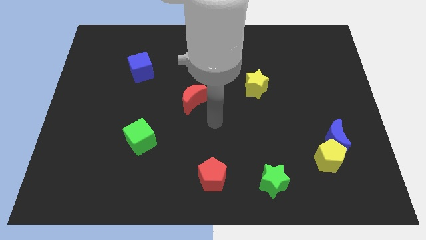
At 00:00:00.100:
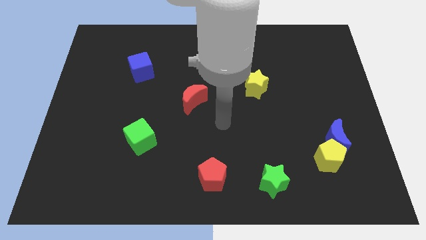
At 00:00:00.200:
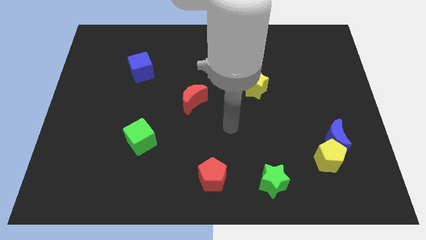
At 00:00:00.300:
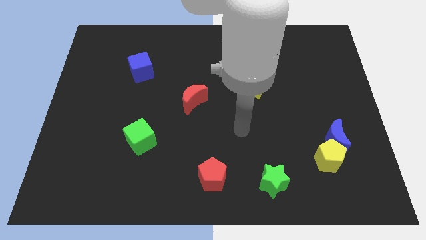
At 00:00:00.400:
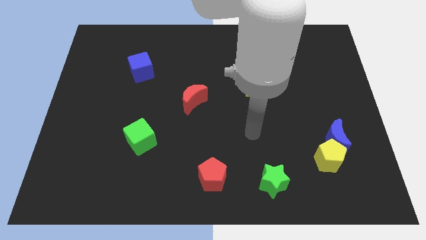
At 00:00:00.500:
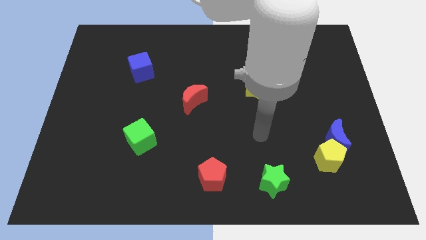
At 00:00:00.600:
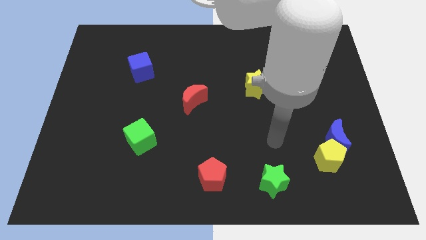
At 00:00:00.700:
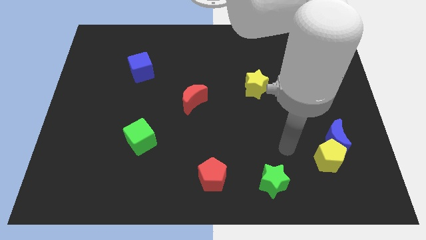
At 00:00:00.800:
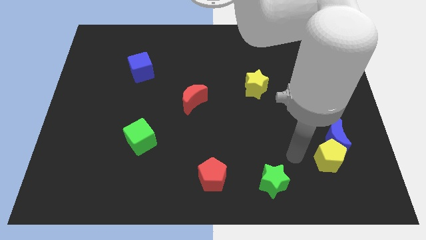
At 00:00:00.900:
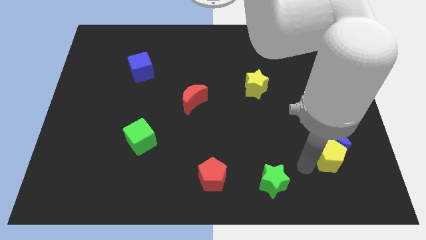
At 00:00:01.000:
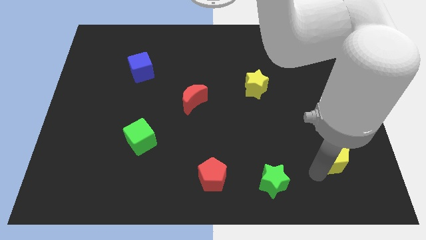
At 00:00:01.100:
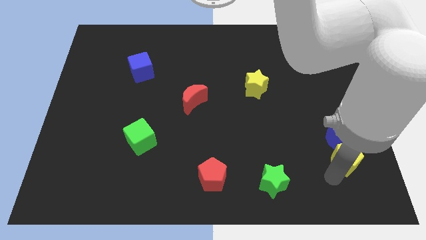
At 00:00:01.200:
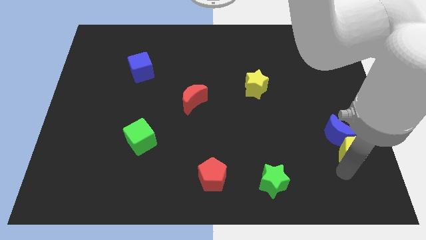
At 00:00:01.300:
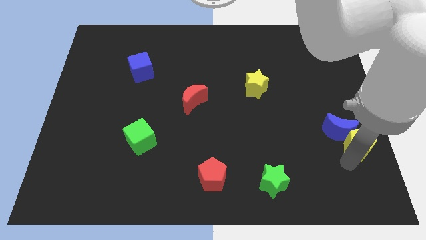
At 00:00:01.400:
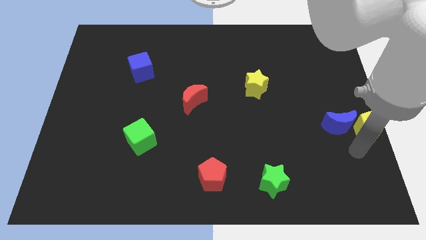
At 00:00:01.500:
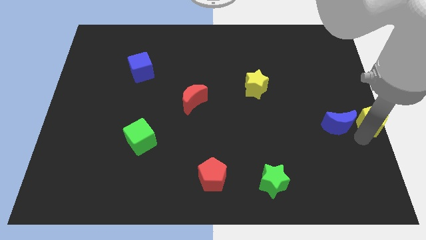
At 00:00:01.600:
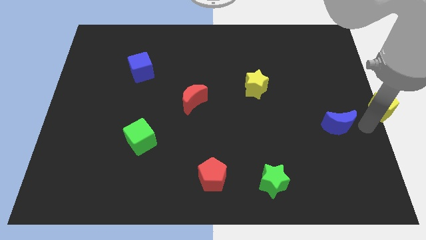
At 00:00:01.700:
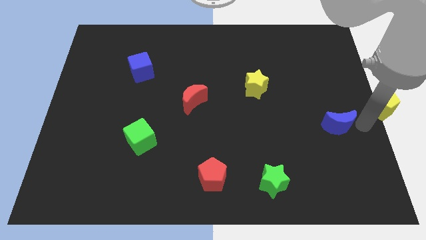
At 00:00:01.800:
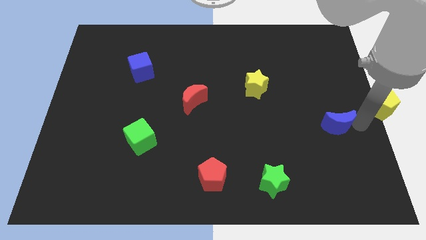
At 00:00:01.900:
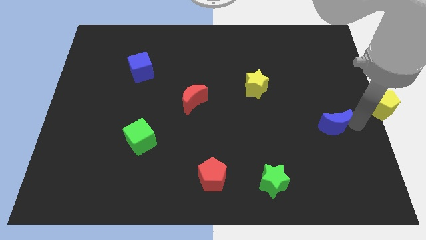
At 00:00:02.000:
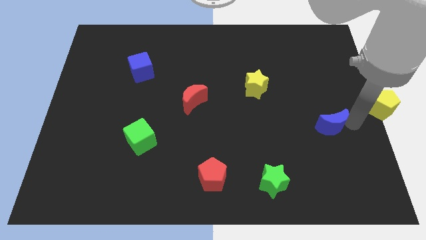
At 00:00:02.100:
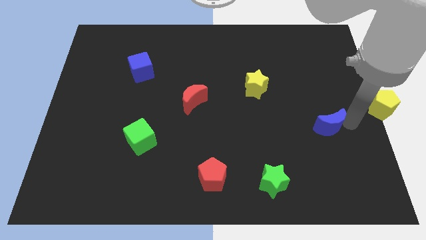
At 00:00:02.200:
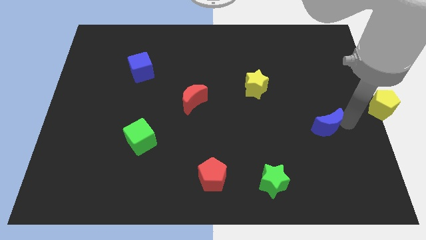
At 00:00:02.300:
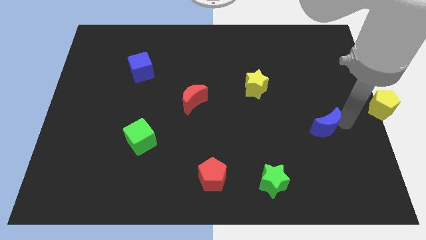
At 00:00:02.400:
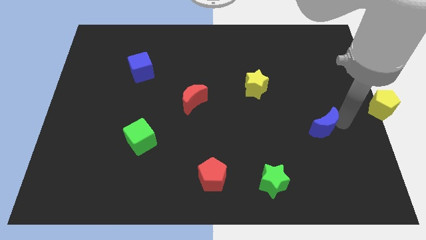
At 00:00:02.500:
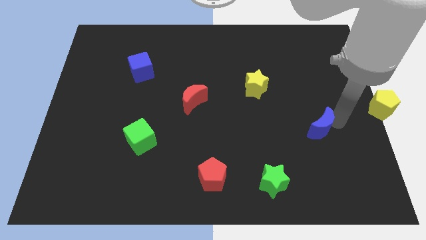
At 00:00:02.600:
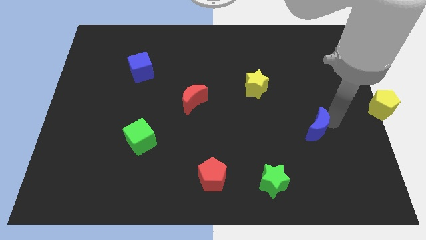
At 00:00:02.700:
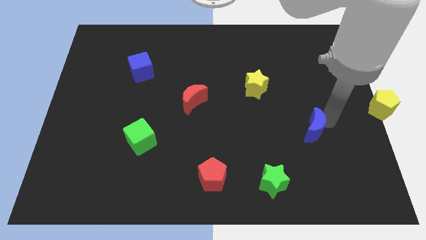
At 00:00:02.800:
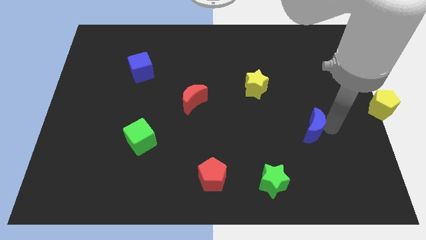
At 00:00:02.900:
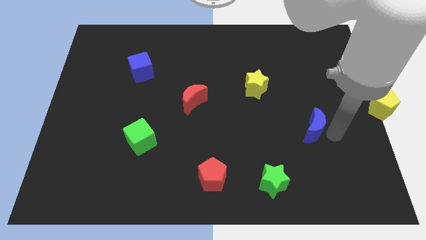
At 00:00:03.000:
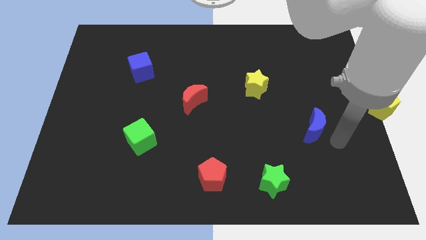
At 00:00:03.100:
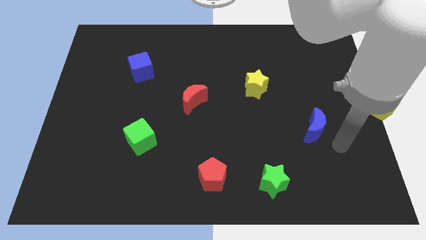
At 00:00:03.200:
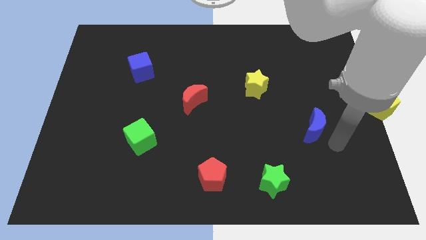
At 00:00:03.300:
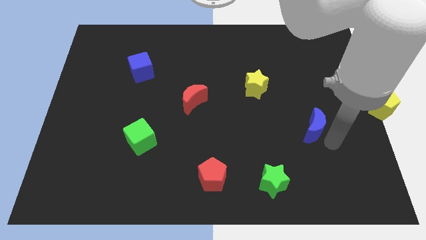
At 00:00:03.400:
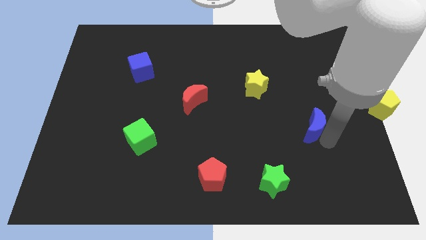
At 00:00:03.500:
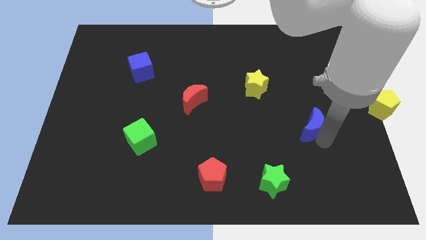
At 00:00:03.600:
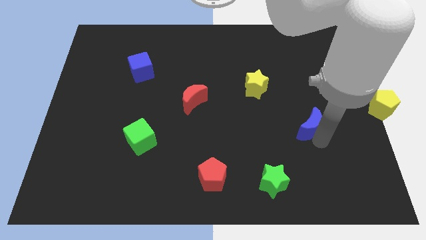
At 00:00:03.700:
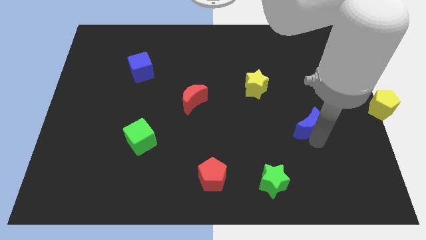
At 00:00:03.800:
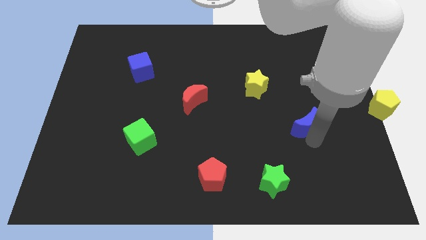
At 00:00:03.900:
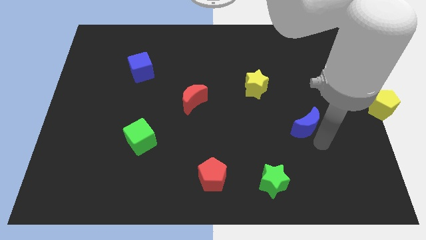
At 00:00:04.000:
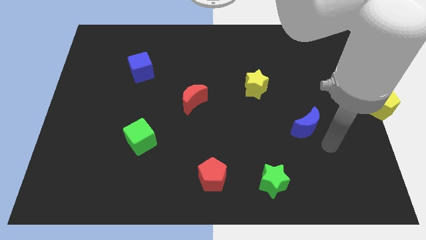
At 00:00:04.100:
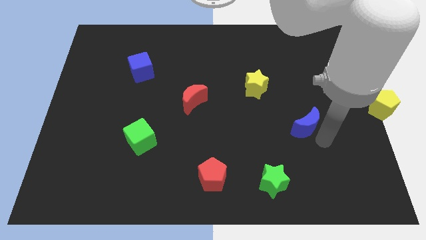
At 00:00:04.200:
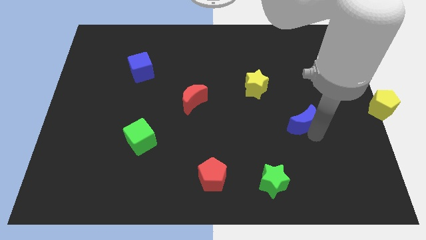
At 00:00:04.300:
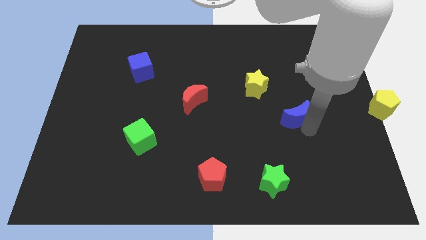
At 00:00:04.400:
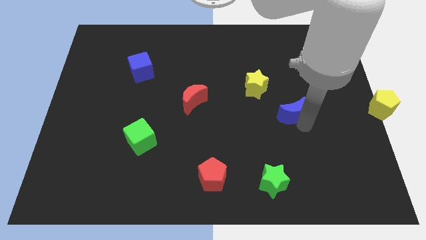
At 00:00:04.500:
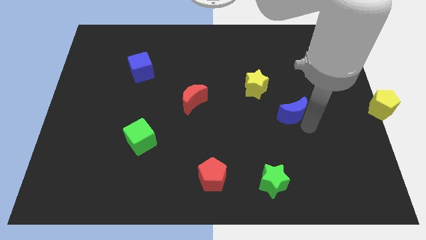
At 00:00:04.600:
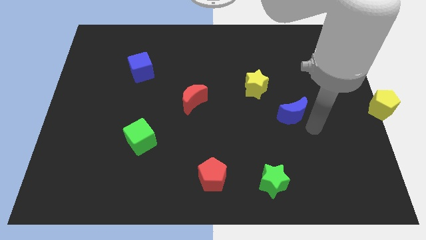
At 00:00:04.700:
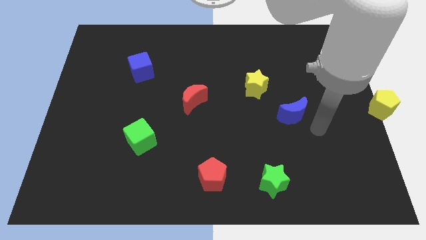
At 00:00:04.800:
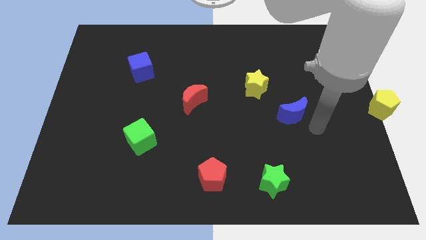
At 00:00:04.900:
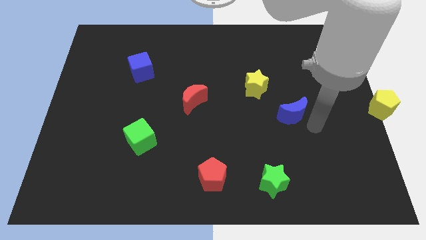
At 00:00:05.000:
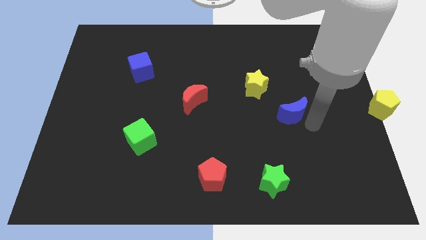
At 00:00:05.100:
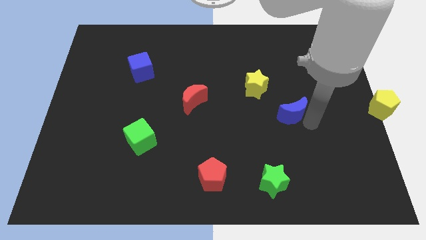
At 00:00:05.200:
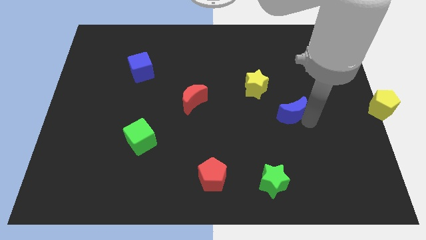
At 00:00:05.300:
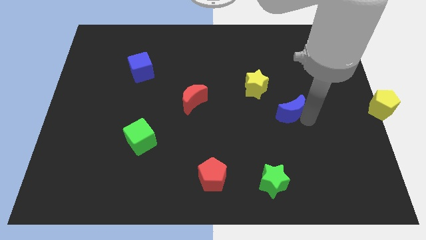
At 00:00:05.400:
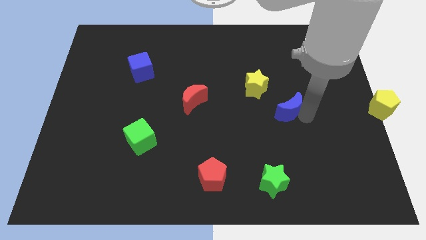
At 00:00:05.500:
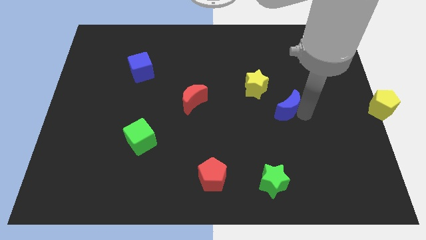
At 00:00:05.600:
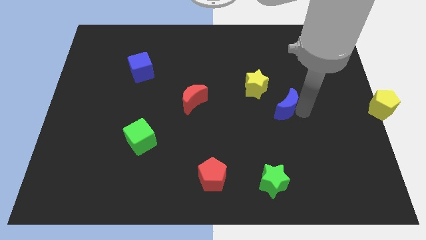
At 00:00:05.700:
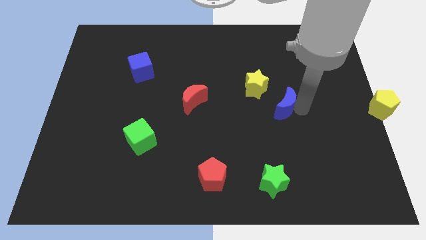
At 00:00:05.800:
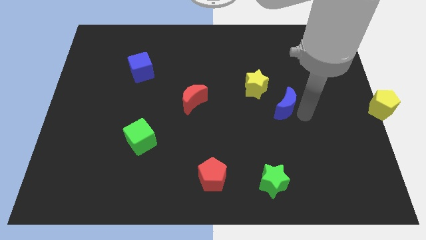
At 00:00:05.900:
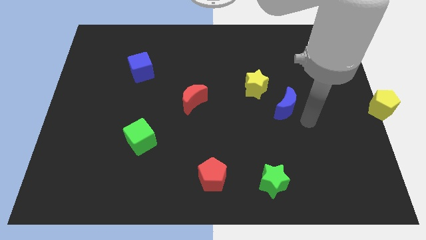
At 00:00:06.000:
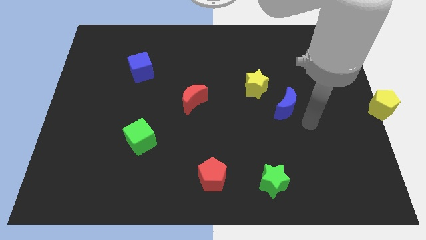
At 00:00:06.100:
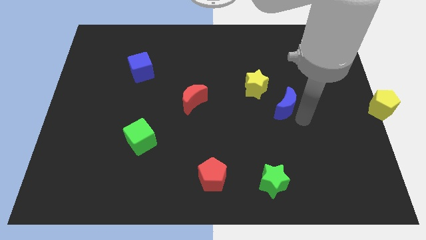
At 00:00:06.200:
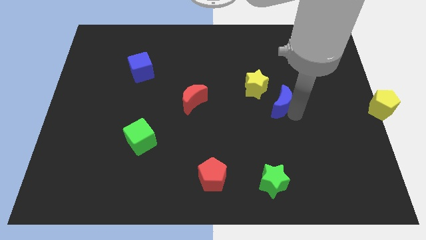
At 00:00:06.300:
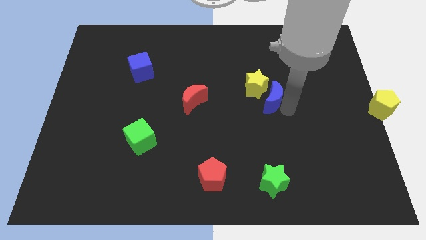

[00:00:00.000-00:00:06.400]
push the blue moon towards the yellow star

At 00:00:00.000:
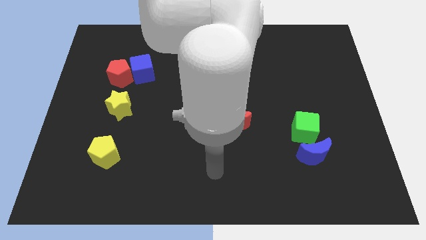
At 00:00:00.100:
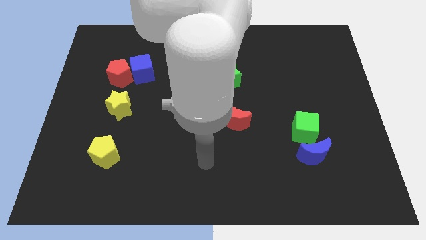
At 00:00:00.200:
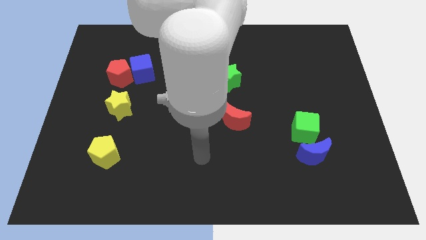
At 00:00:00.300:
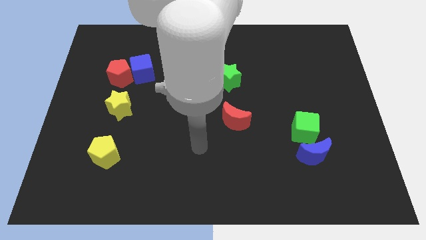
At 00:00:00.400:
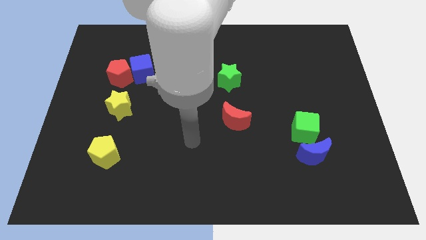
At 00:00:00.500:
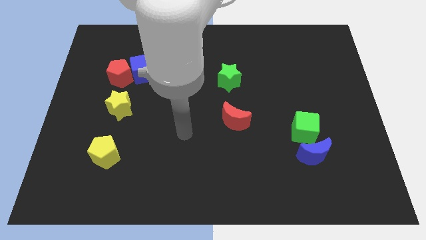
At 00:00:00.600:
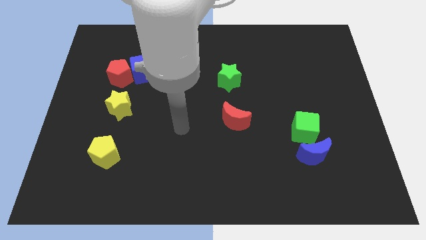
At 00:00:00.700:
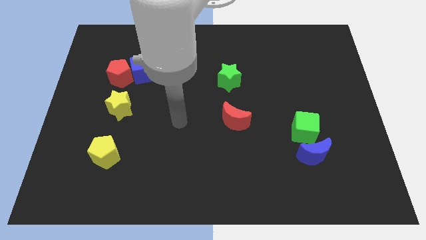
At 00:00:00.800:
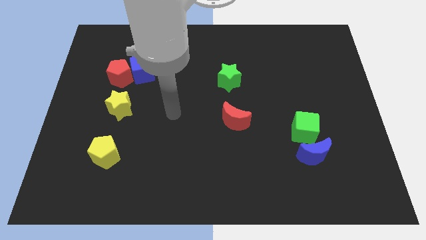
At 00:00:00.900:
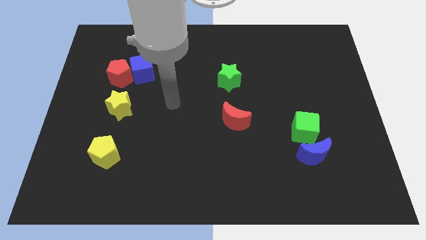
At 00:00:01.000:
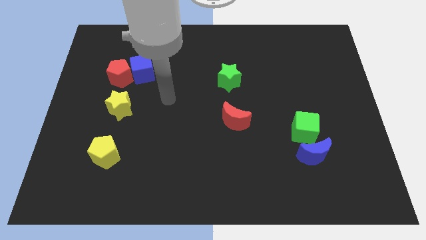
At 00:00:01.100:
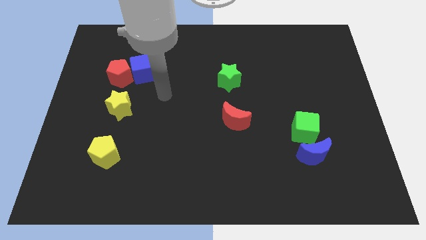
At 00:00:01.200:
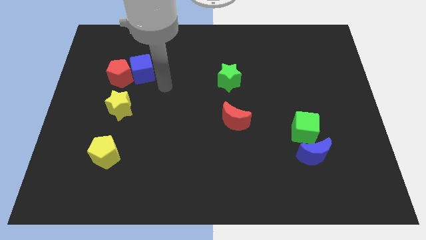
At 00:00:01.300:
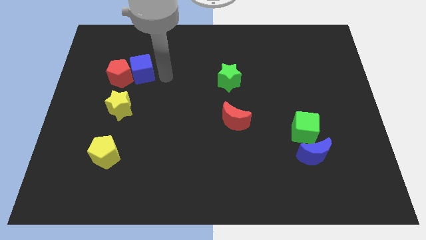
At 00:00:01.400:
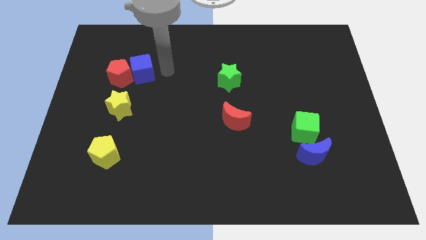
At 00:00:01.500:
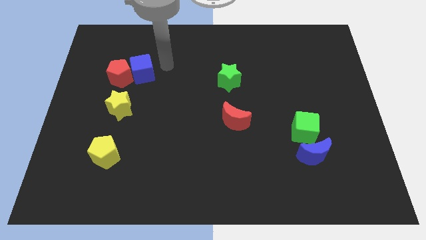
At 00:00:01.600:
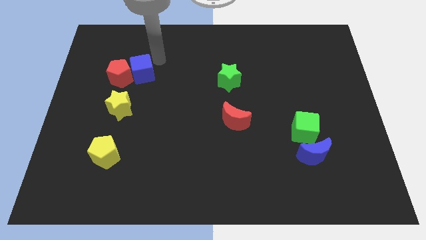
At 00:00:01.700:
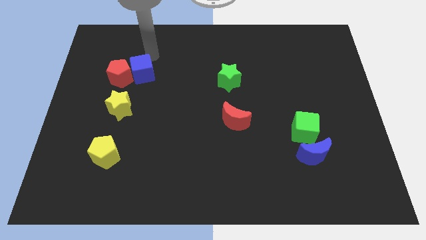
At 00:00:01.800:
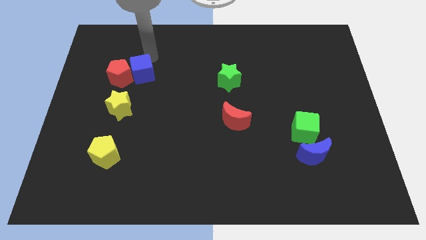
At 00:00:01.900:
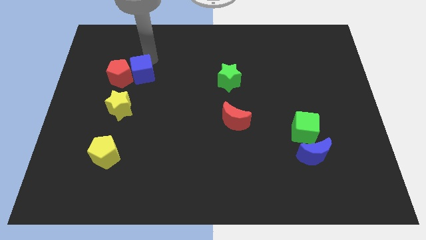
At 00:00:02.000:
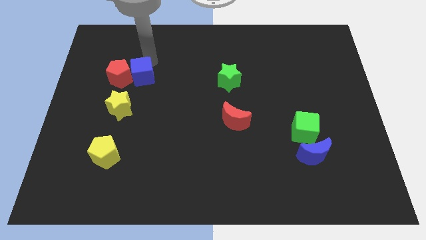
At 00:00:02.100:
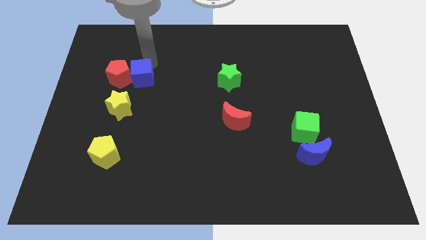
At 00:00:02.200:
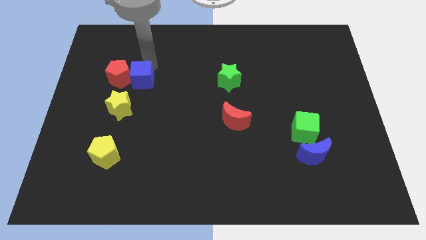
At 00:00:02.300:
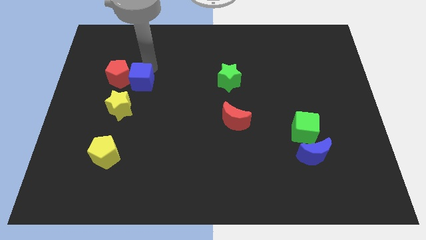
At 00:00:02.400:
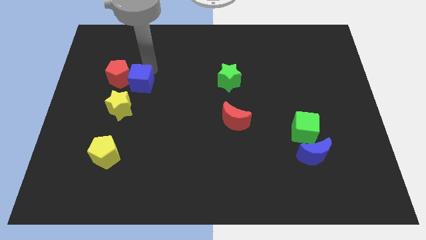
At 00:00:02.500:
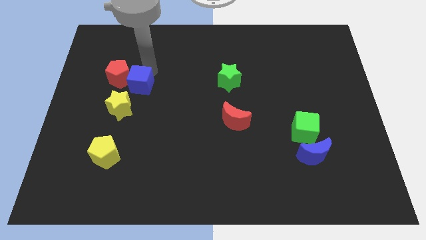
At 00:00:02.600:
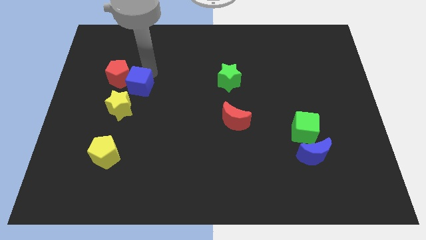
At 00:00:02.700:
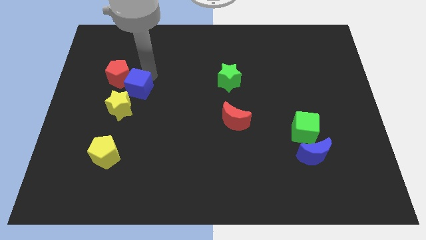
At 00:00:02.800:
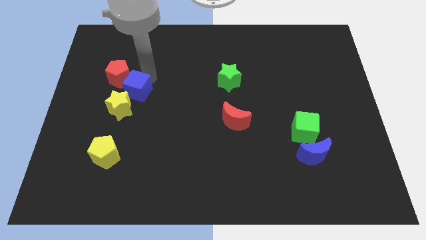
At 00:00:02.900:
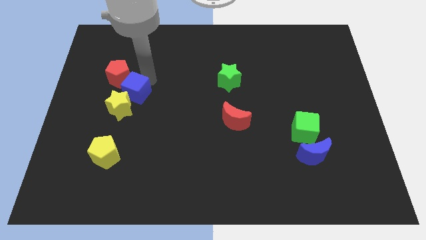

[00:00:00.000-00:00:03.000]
push the blue cube next to the yellow star
